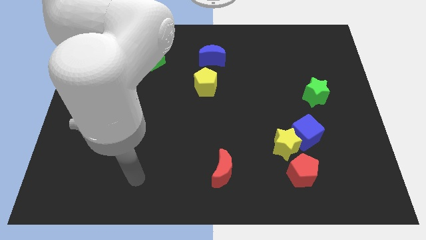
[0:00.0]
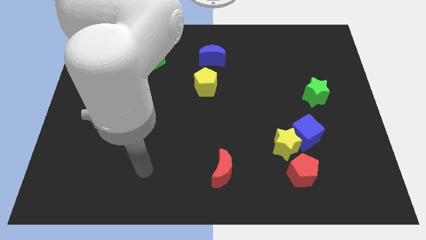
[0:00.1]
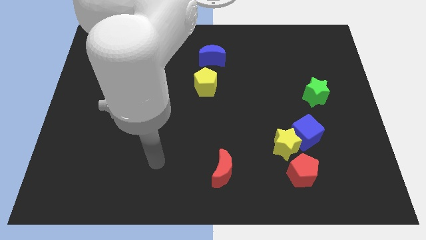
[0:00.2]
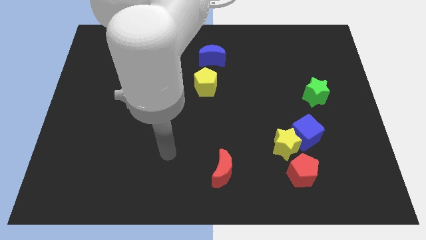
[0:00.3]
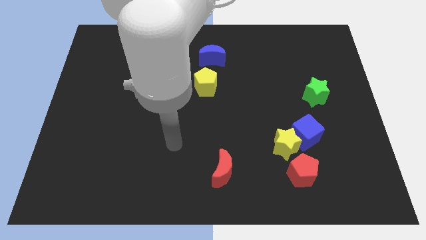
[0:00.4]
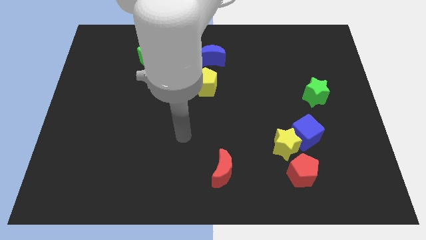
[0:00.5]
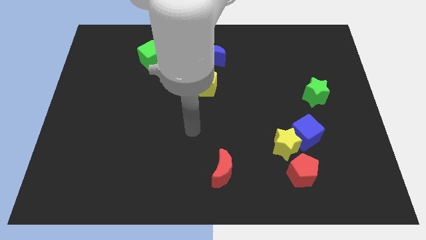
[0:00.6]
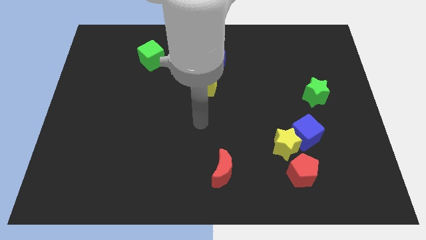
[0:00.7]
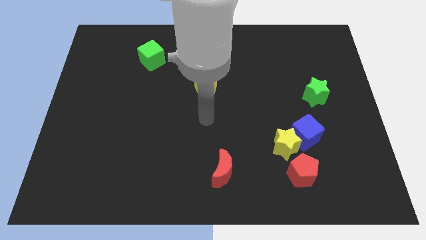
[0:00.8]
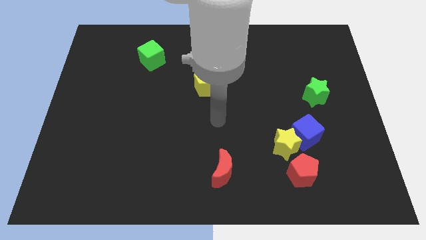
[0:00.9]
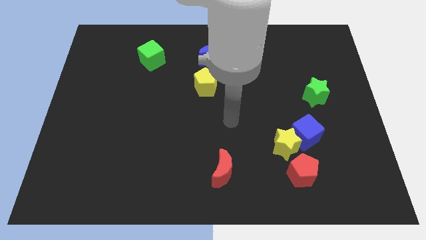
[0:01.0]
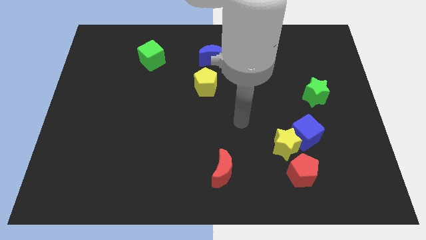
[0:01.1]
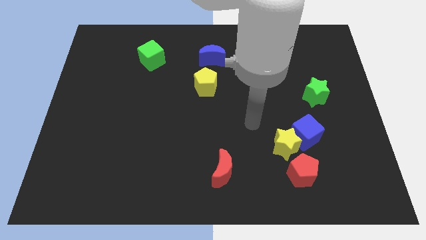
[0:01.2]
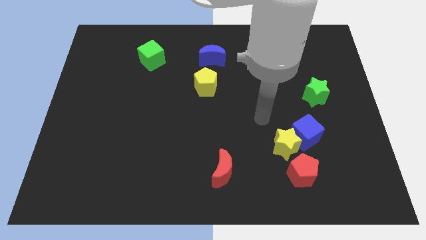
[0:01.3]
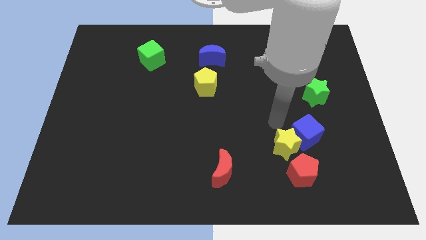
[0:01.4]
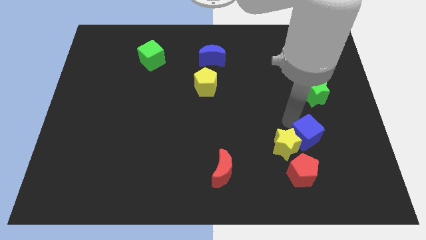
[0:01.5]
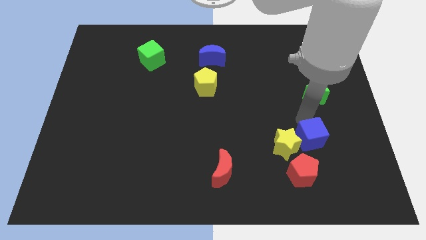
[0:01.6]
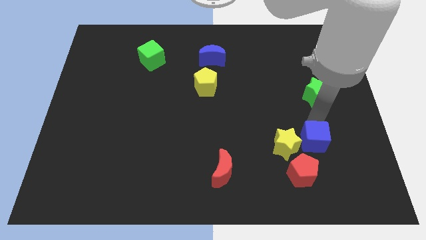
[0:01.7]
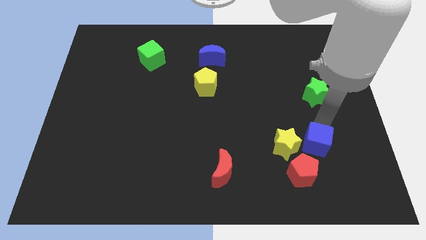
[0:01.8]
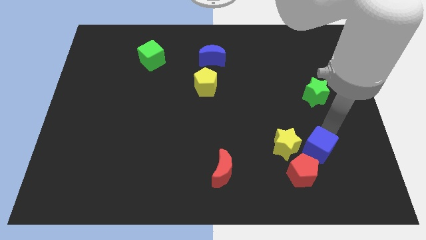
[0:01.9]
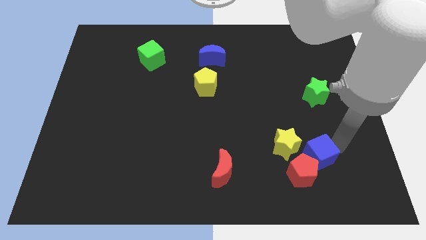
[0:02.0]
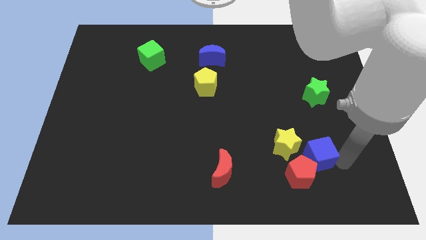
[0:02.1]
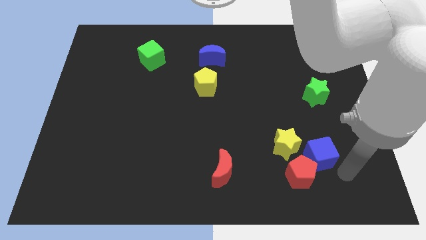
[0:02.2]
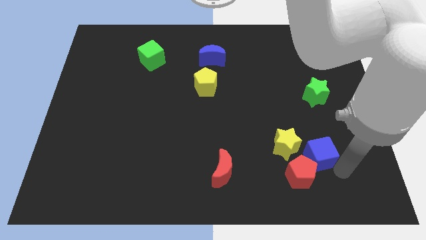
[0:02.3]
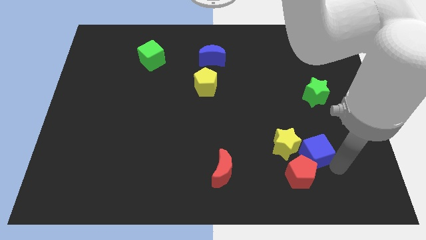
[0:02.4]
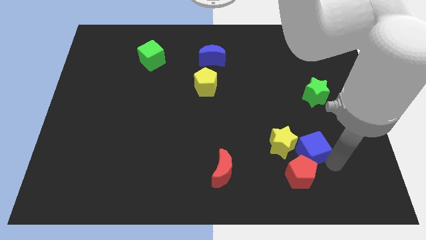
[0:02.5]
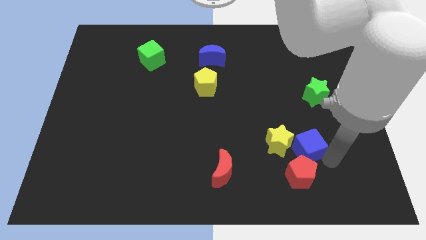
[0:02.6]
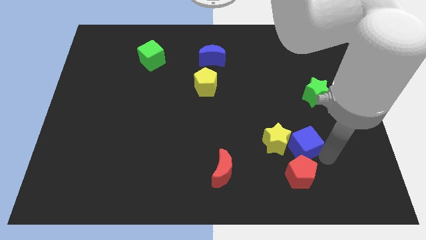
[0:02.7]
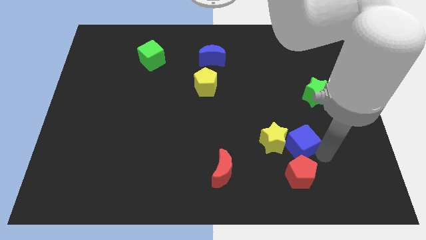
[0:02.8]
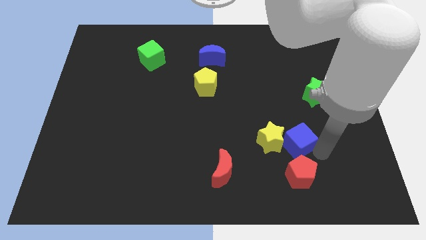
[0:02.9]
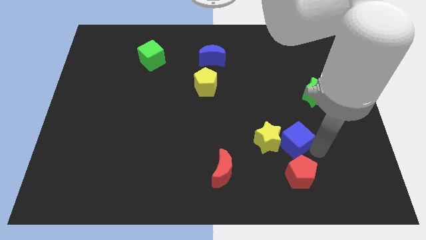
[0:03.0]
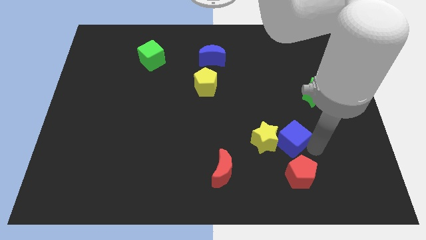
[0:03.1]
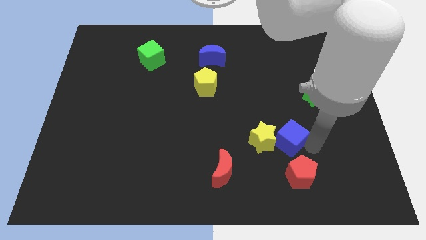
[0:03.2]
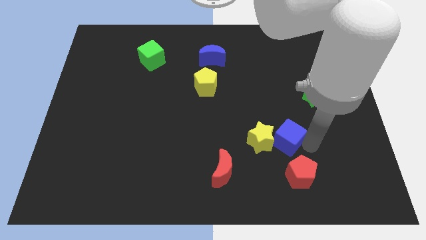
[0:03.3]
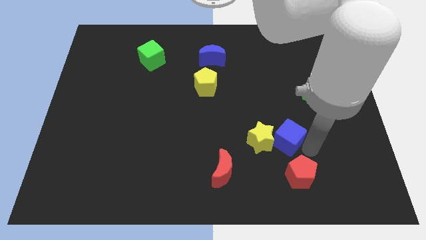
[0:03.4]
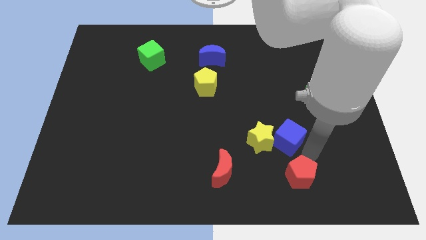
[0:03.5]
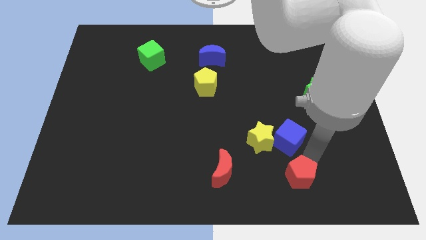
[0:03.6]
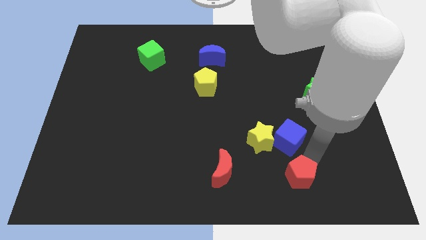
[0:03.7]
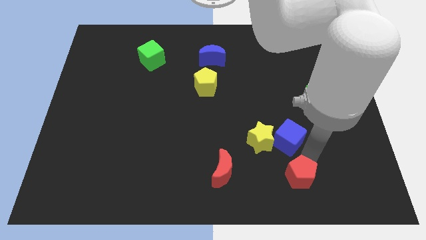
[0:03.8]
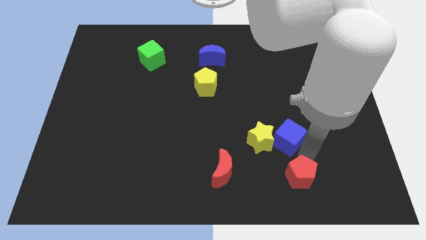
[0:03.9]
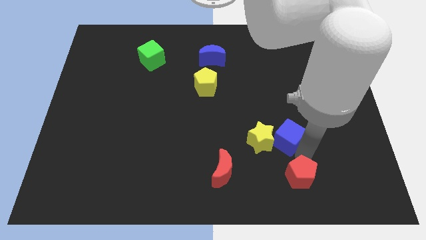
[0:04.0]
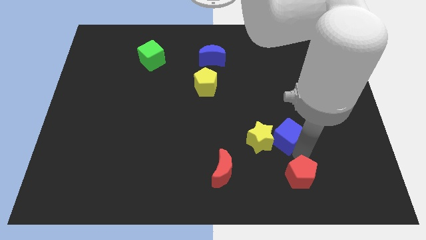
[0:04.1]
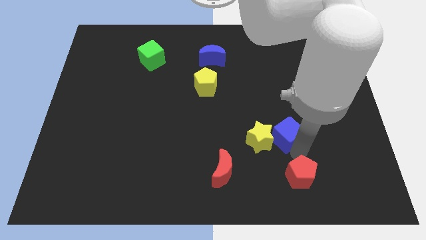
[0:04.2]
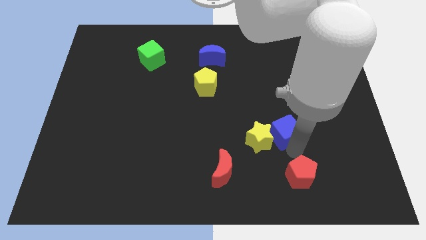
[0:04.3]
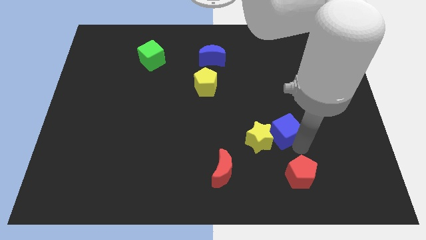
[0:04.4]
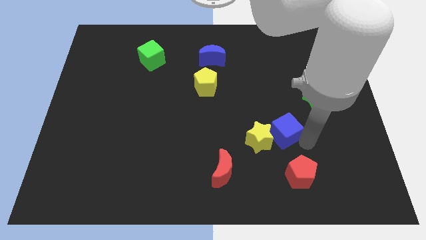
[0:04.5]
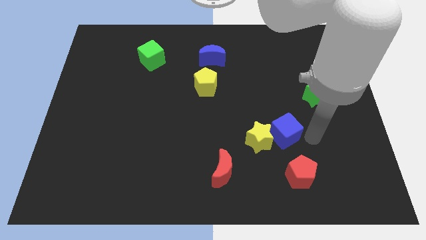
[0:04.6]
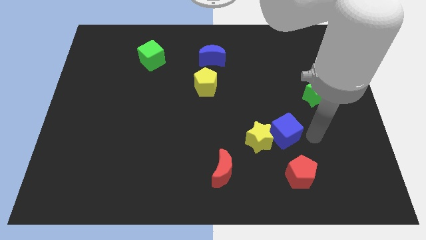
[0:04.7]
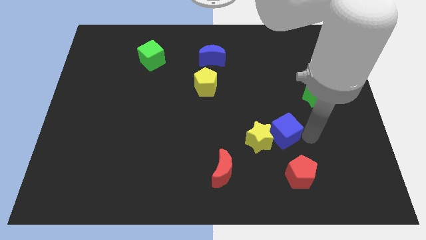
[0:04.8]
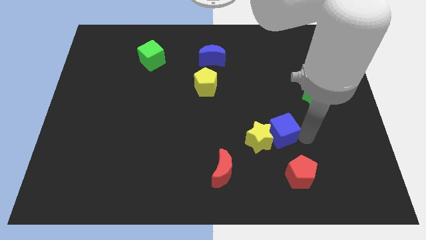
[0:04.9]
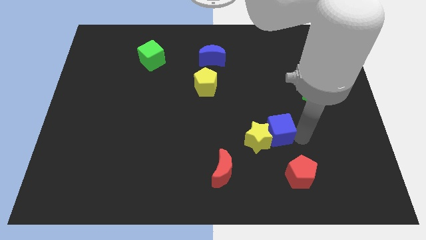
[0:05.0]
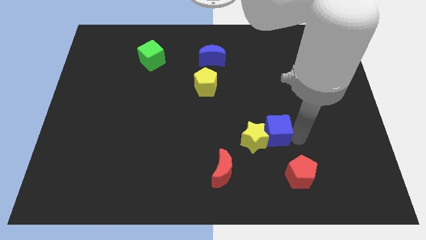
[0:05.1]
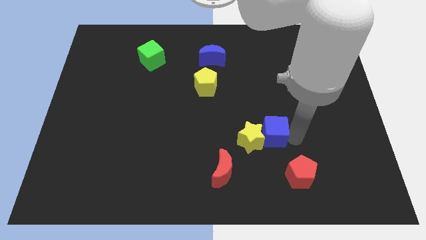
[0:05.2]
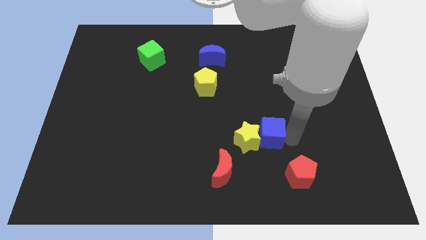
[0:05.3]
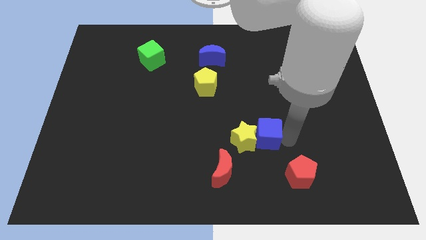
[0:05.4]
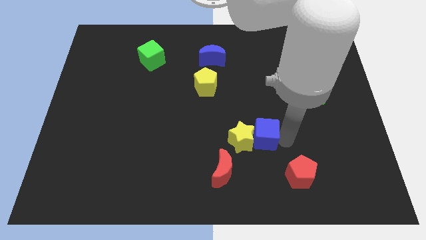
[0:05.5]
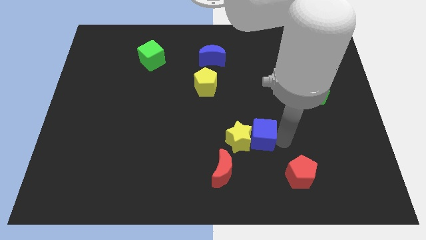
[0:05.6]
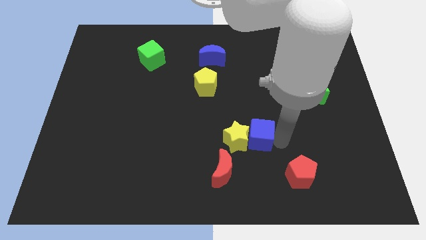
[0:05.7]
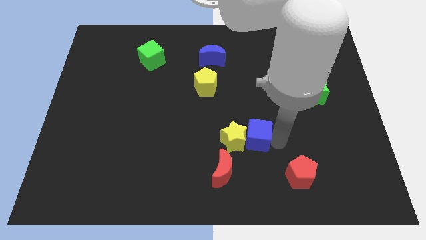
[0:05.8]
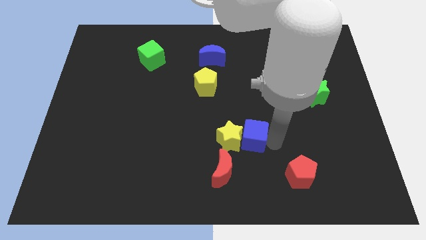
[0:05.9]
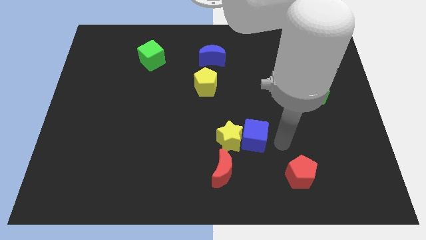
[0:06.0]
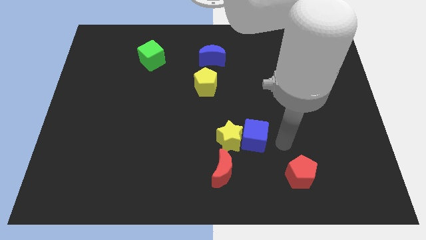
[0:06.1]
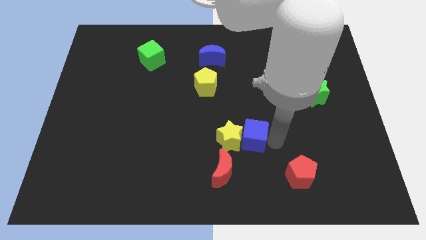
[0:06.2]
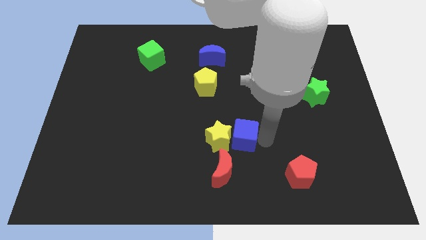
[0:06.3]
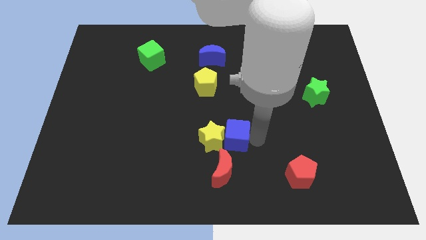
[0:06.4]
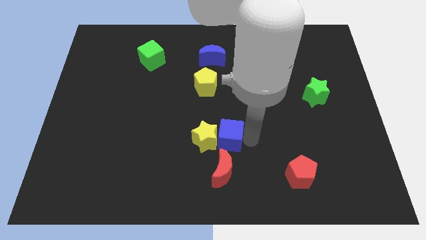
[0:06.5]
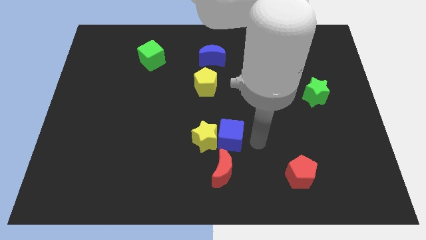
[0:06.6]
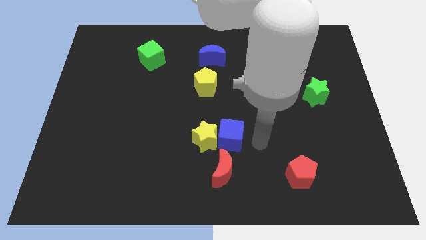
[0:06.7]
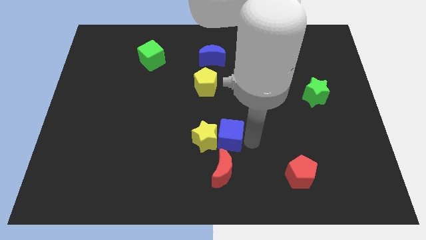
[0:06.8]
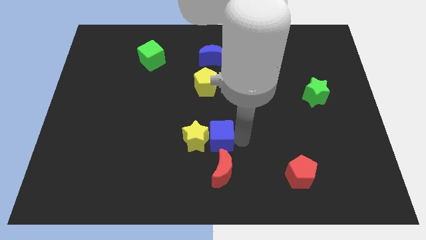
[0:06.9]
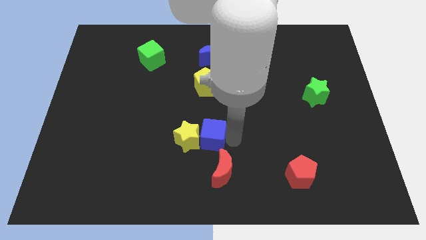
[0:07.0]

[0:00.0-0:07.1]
push the blue cube to the left

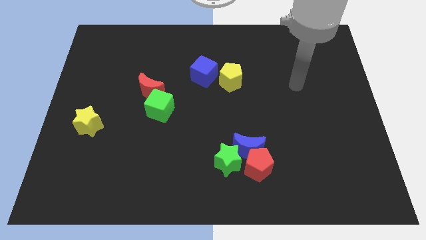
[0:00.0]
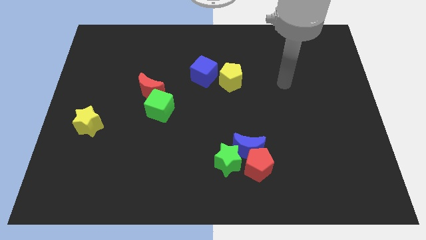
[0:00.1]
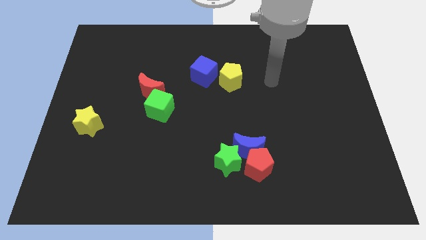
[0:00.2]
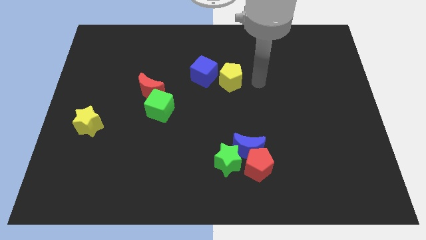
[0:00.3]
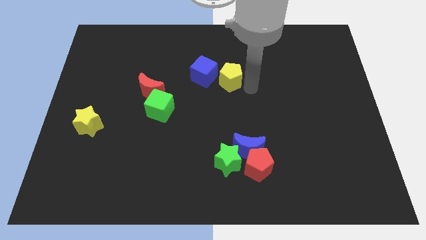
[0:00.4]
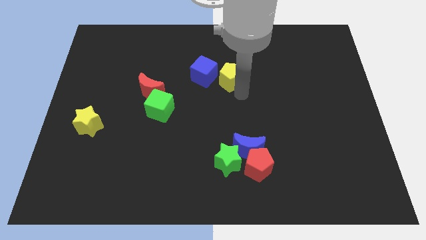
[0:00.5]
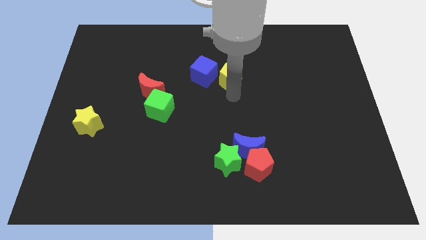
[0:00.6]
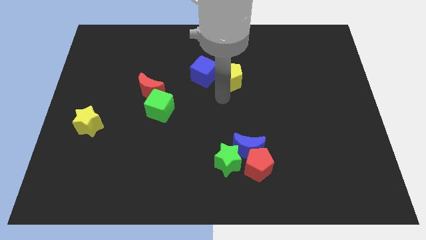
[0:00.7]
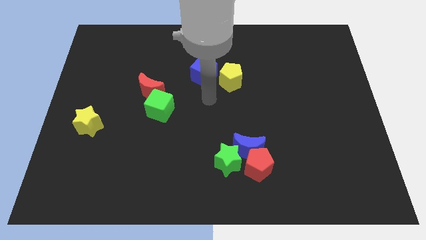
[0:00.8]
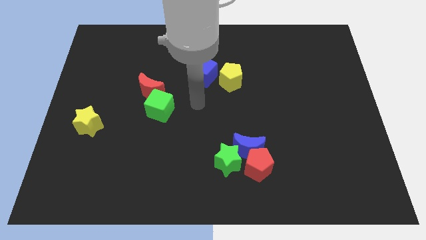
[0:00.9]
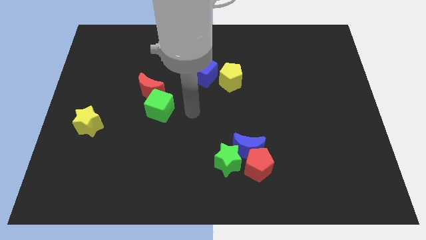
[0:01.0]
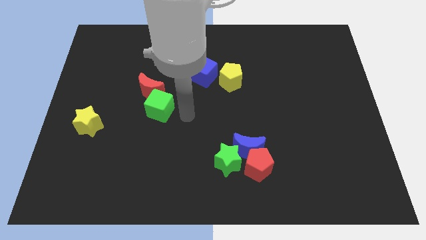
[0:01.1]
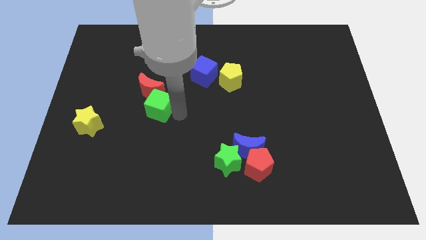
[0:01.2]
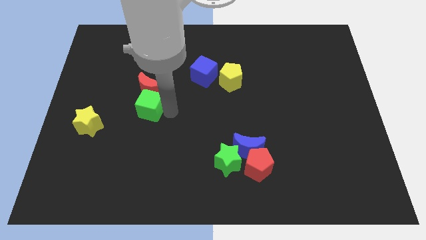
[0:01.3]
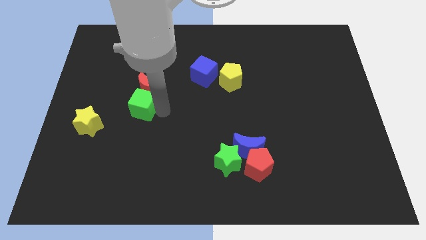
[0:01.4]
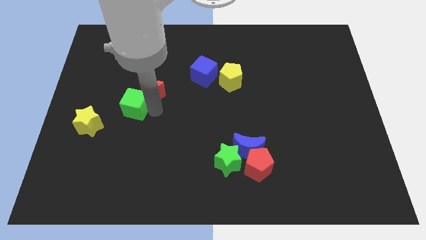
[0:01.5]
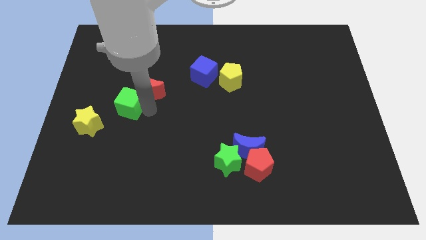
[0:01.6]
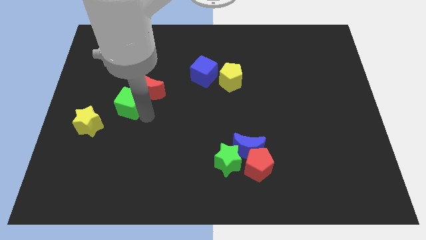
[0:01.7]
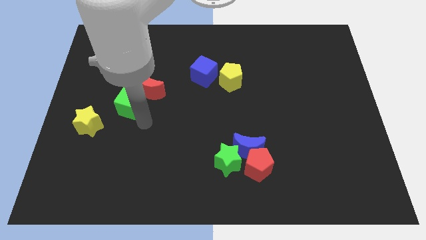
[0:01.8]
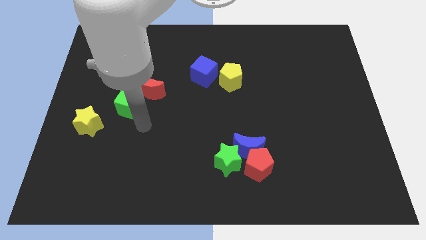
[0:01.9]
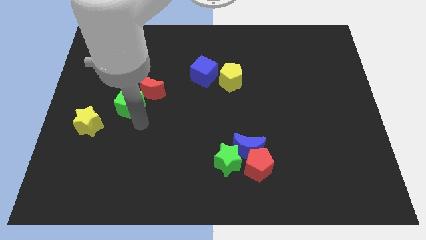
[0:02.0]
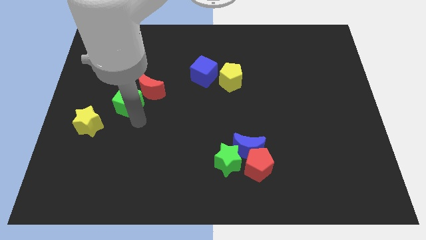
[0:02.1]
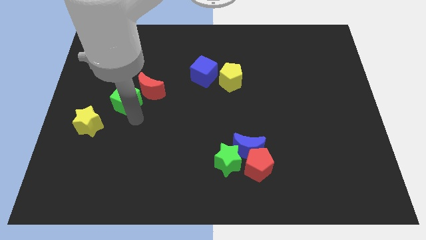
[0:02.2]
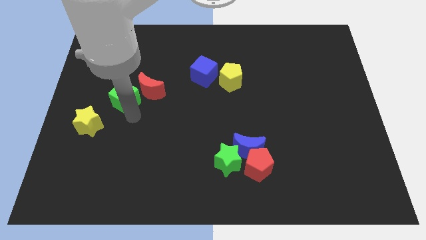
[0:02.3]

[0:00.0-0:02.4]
push the green cube upwards and to the left diagonally a little
